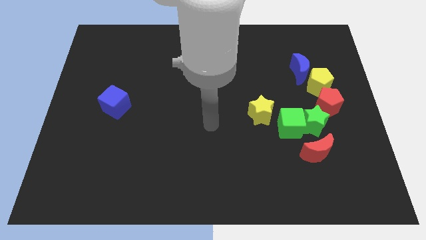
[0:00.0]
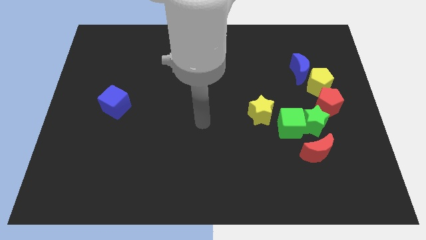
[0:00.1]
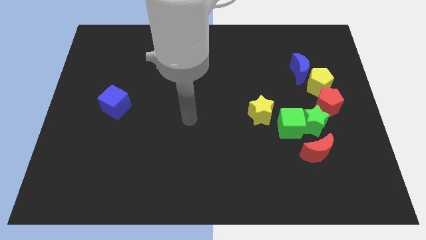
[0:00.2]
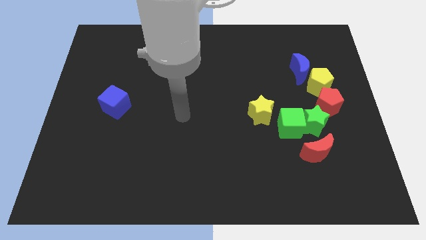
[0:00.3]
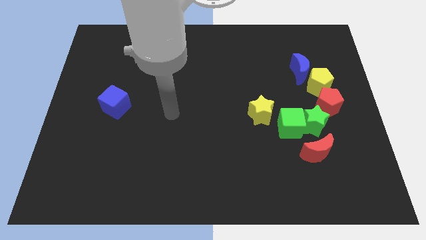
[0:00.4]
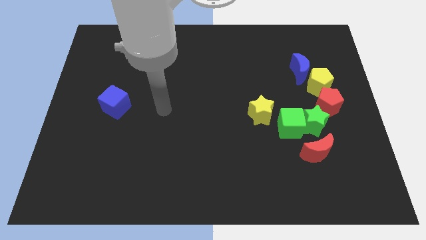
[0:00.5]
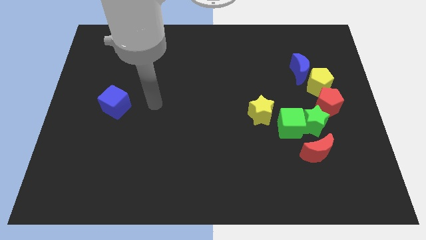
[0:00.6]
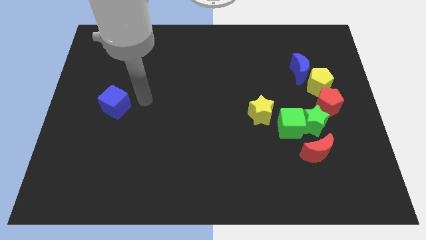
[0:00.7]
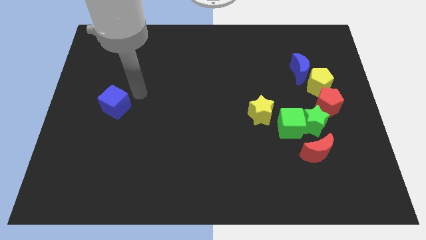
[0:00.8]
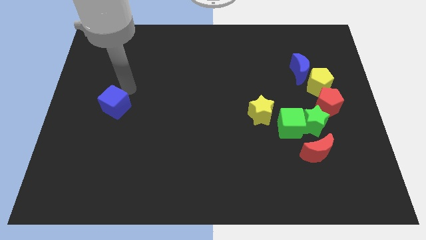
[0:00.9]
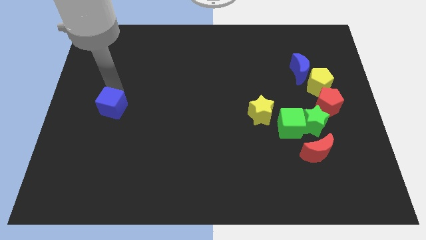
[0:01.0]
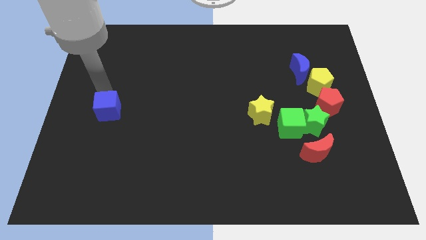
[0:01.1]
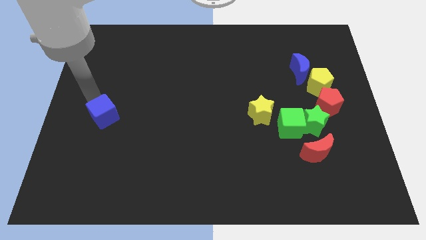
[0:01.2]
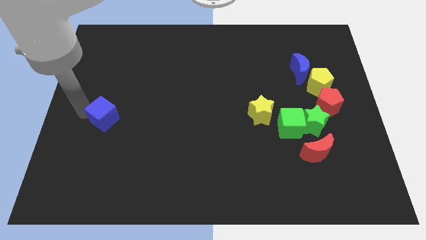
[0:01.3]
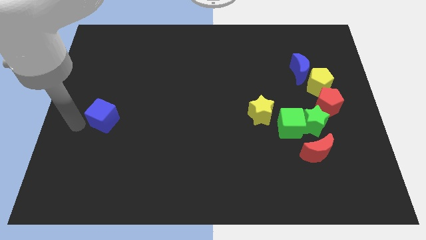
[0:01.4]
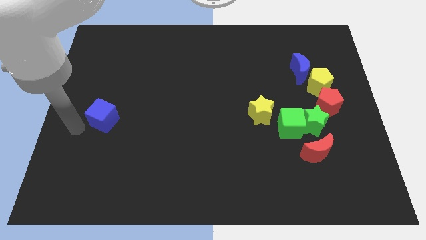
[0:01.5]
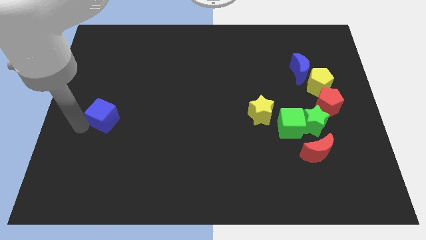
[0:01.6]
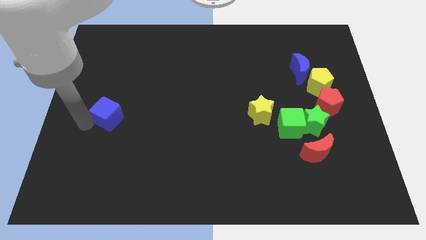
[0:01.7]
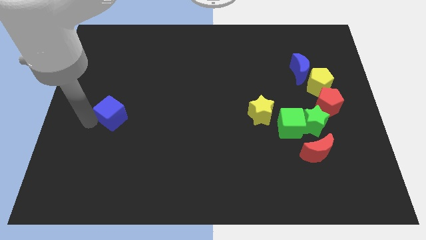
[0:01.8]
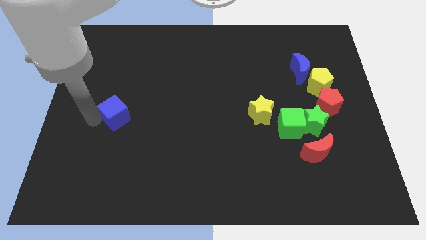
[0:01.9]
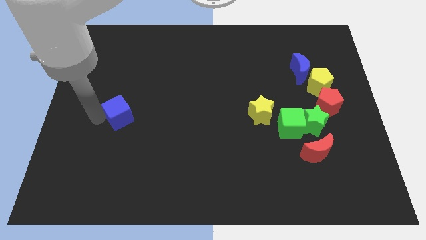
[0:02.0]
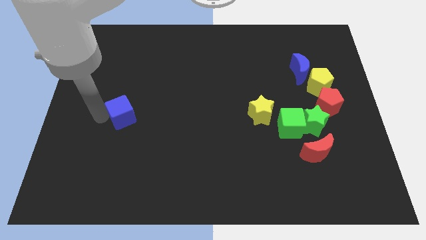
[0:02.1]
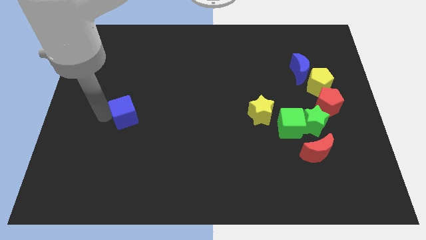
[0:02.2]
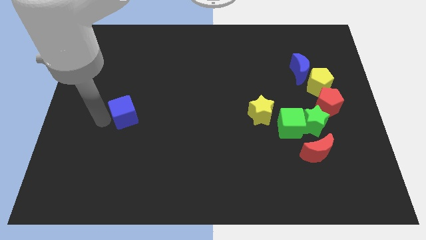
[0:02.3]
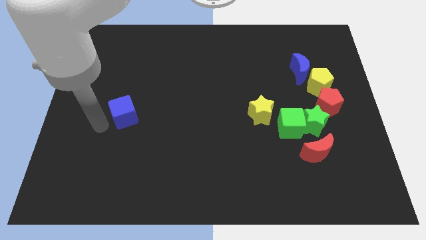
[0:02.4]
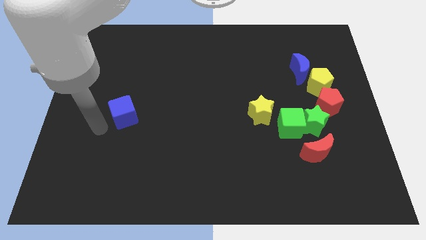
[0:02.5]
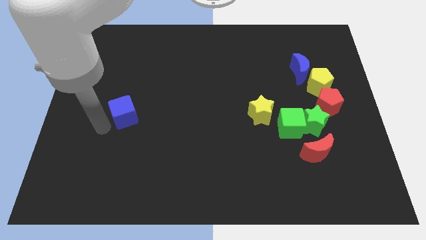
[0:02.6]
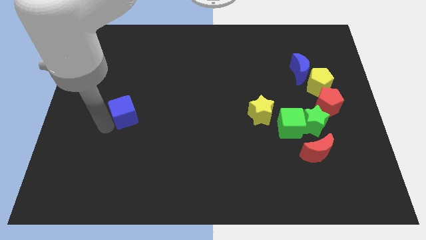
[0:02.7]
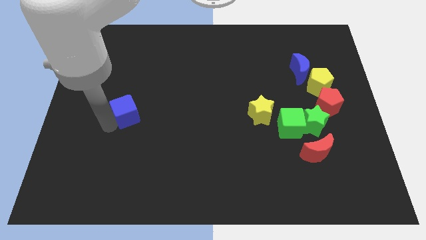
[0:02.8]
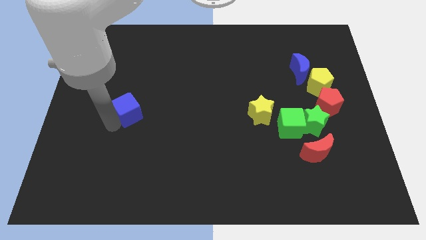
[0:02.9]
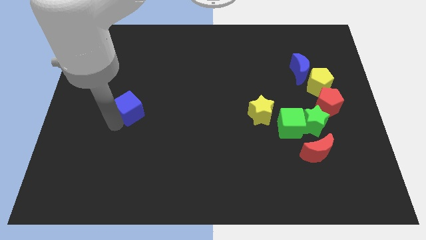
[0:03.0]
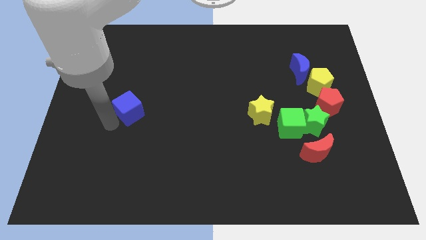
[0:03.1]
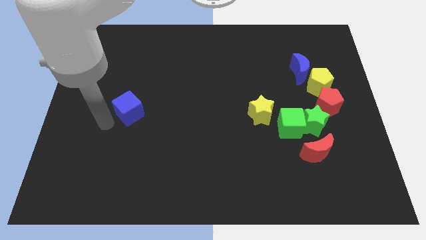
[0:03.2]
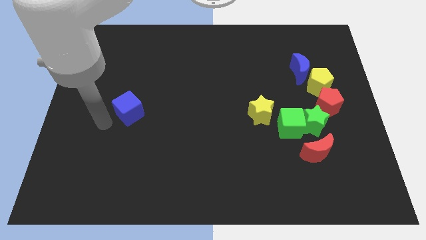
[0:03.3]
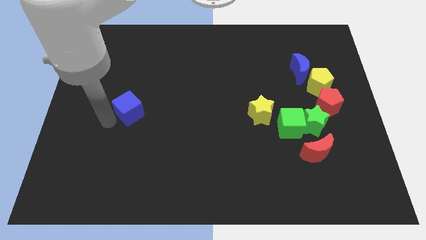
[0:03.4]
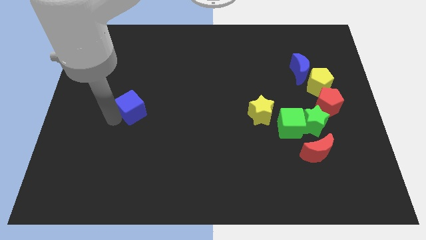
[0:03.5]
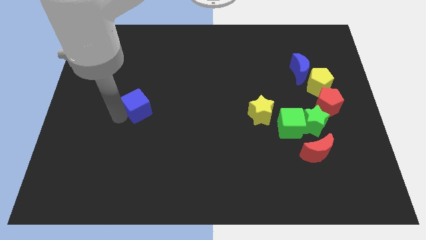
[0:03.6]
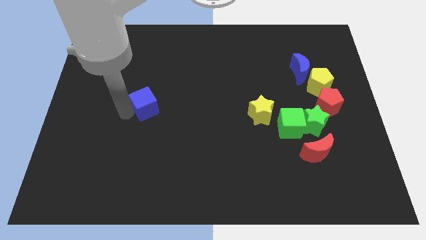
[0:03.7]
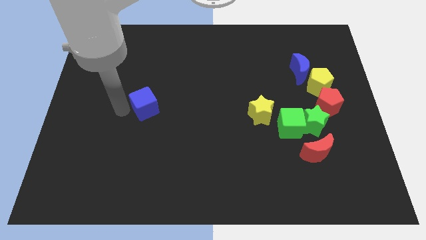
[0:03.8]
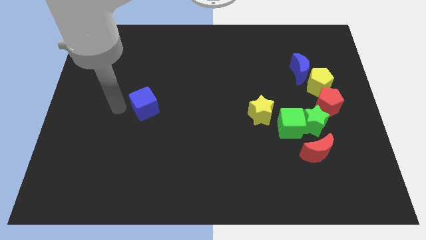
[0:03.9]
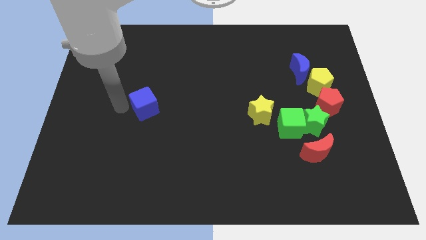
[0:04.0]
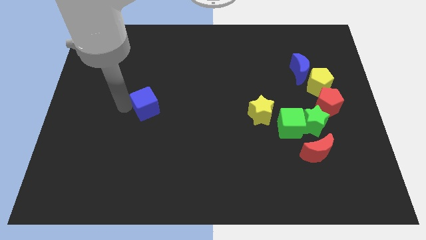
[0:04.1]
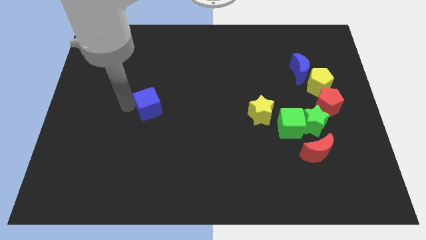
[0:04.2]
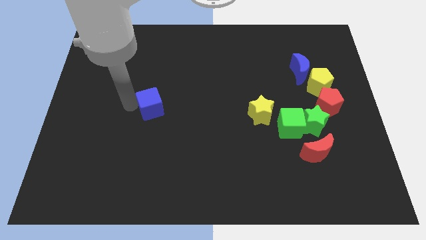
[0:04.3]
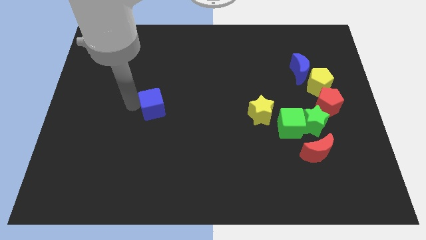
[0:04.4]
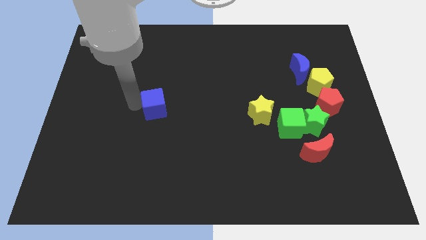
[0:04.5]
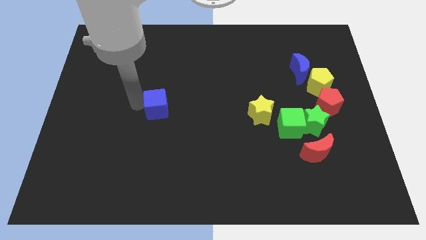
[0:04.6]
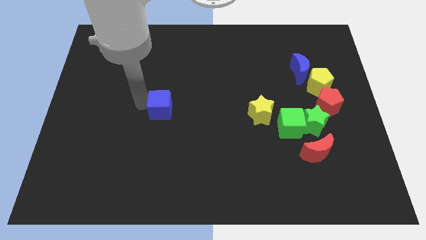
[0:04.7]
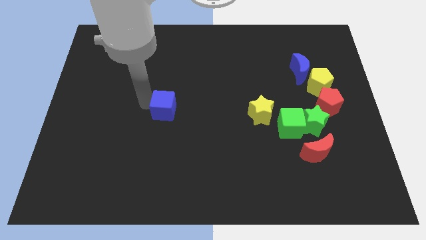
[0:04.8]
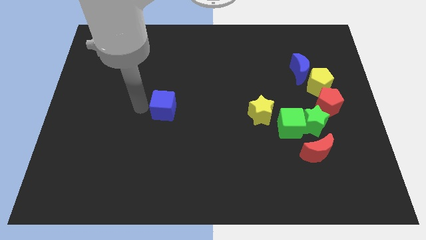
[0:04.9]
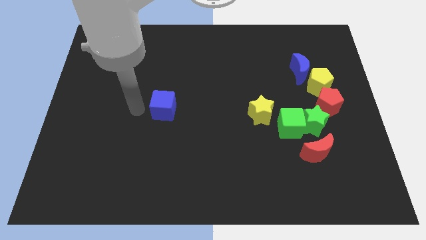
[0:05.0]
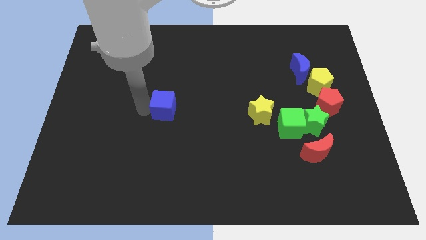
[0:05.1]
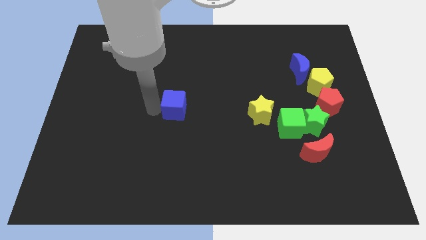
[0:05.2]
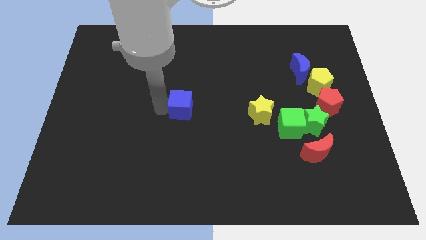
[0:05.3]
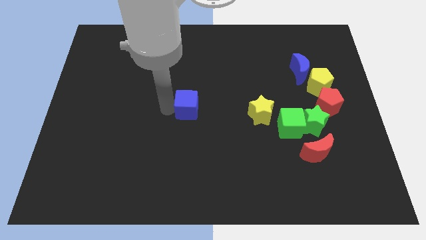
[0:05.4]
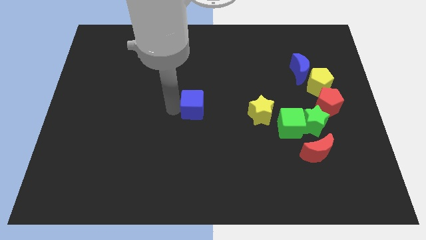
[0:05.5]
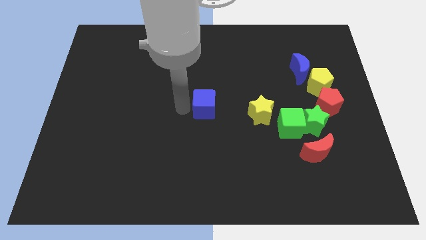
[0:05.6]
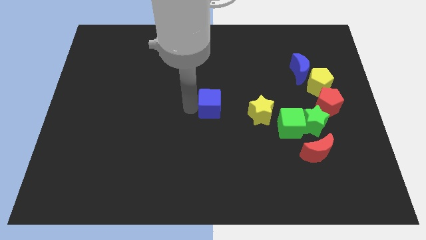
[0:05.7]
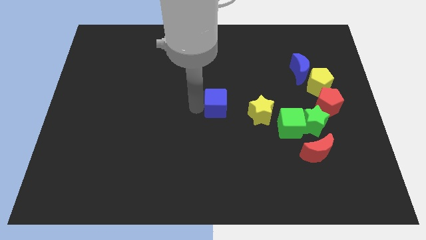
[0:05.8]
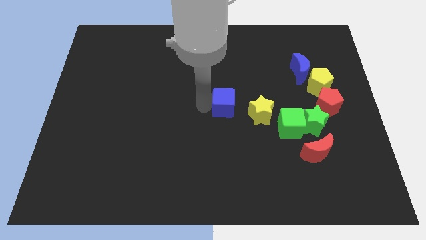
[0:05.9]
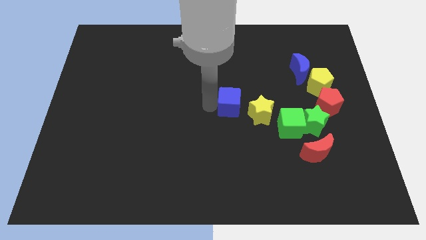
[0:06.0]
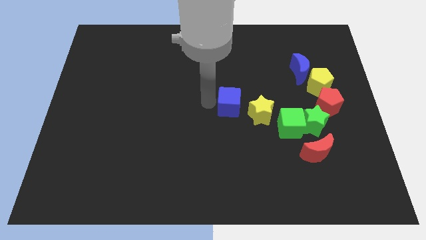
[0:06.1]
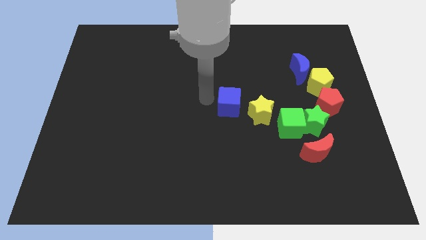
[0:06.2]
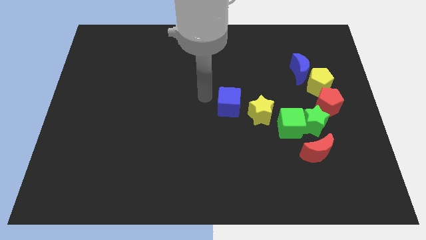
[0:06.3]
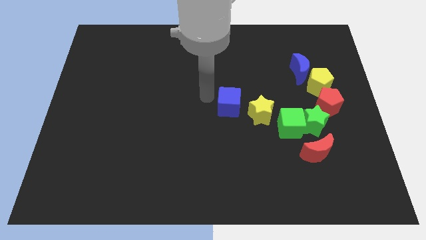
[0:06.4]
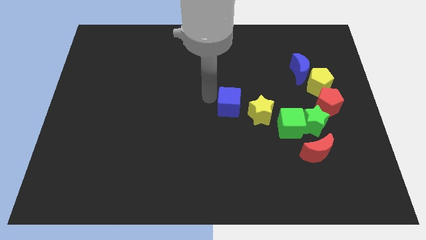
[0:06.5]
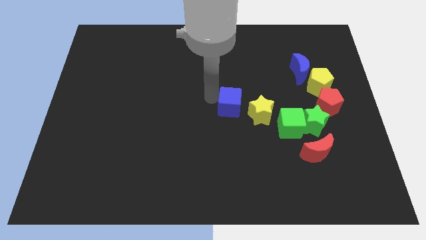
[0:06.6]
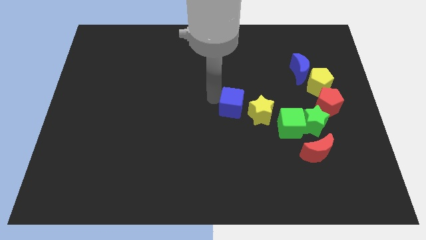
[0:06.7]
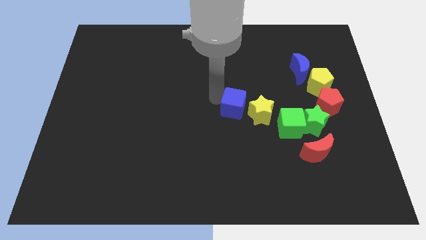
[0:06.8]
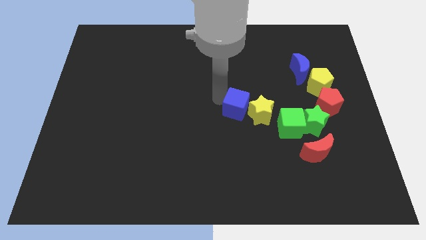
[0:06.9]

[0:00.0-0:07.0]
put the blue cube to the yellow star
